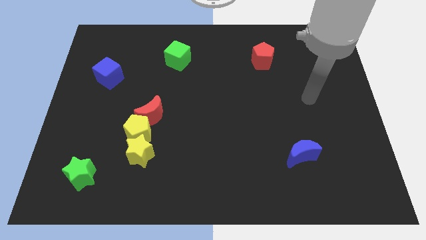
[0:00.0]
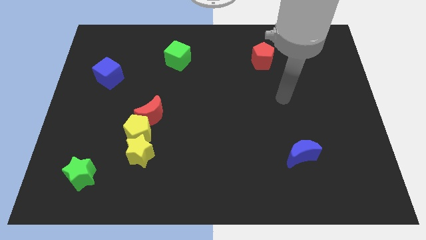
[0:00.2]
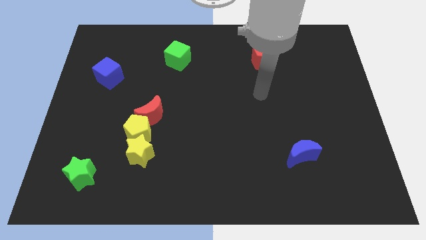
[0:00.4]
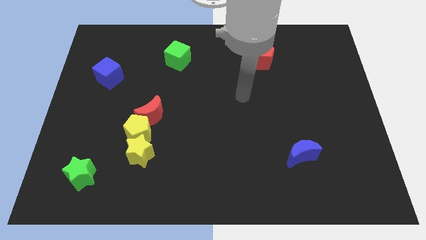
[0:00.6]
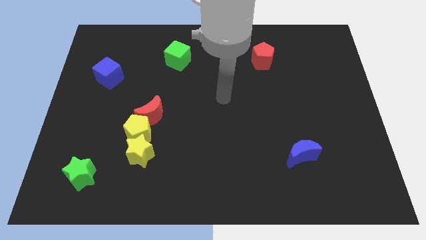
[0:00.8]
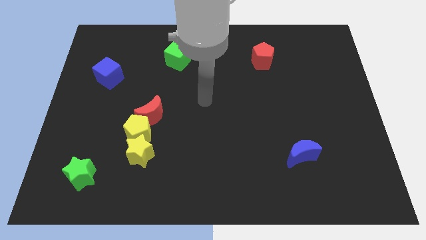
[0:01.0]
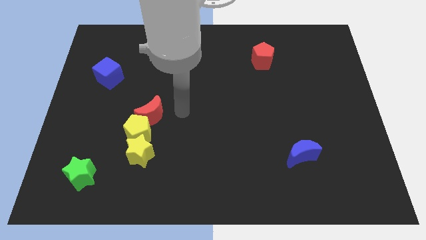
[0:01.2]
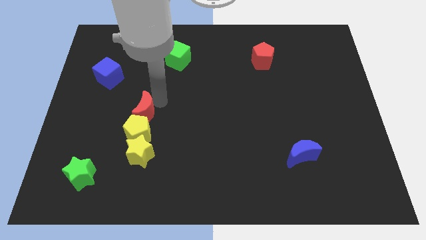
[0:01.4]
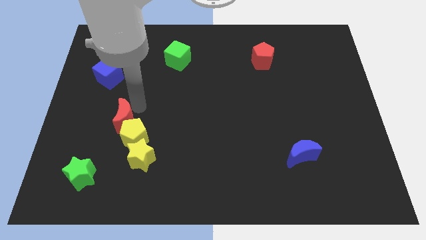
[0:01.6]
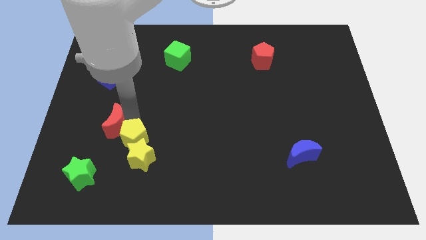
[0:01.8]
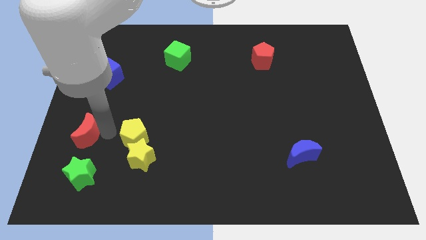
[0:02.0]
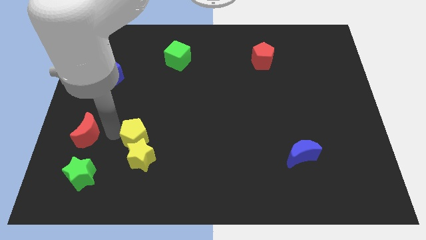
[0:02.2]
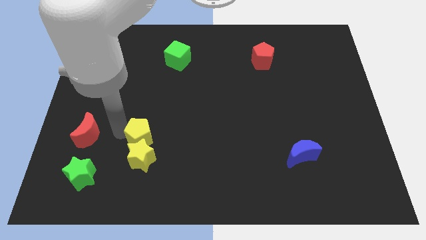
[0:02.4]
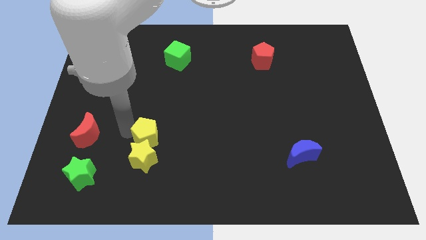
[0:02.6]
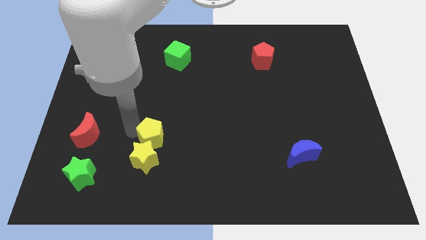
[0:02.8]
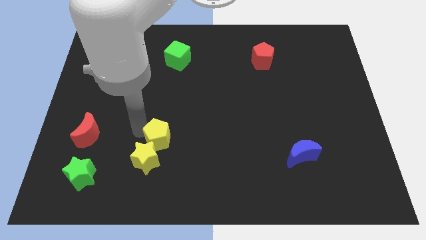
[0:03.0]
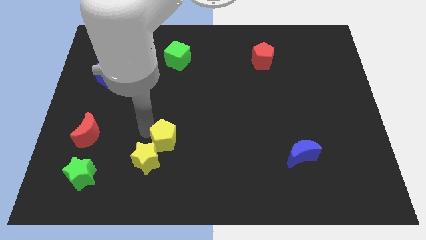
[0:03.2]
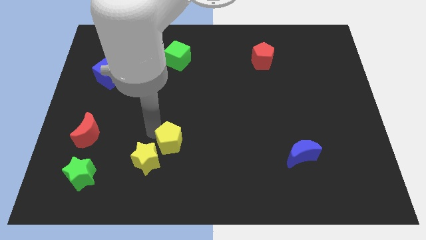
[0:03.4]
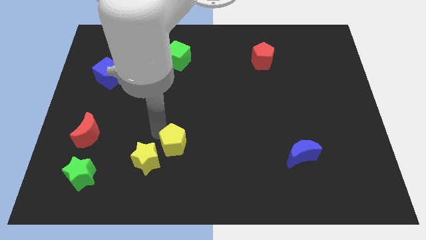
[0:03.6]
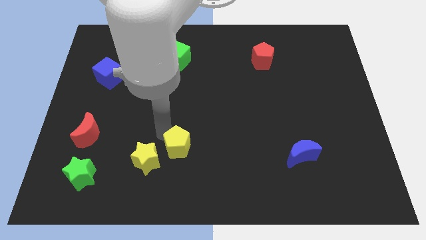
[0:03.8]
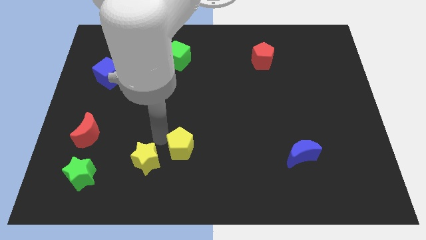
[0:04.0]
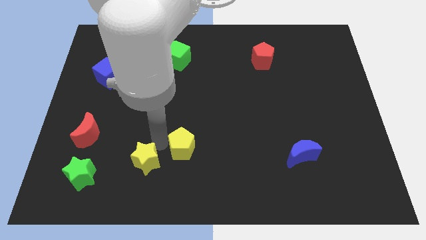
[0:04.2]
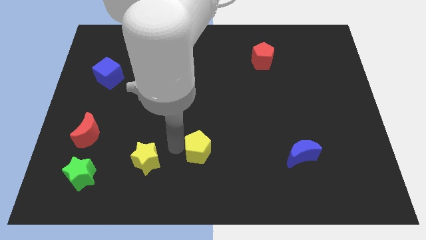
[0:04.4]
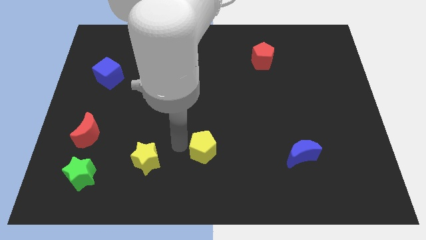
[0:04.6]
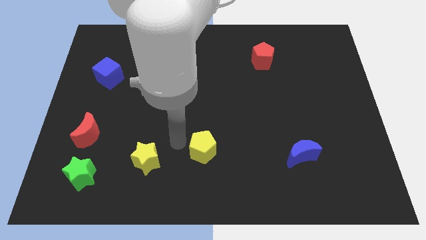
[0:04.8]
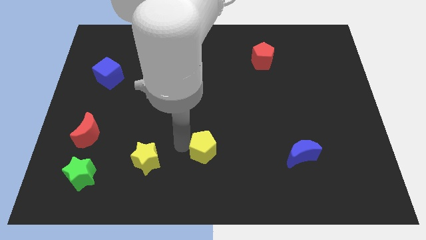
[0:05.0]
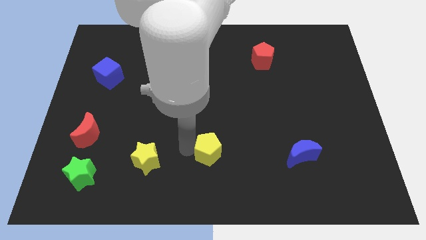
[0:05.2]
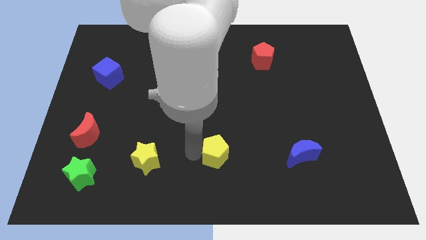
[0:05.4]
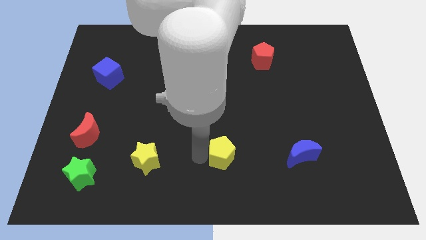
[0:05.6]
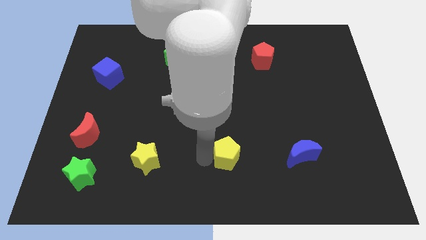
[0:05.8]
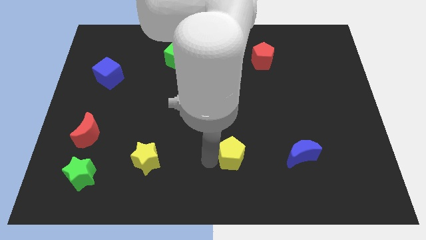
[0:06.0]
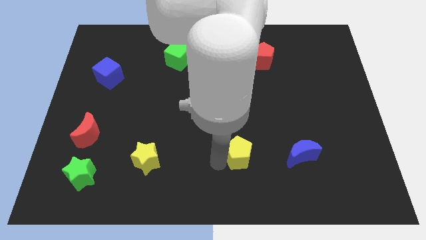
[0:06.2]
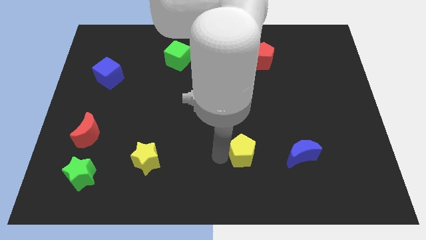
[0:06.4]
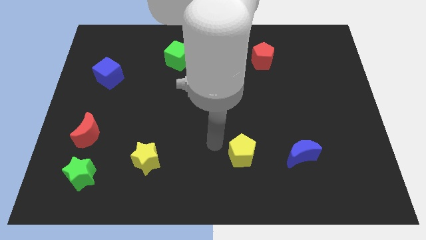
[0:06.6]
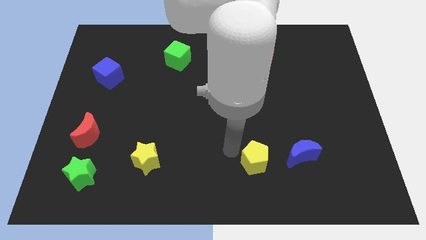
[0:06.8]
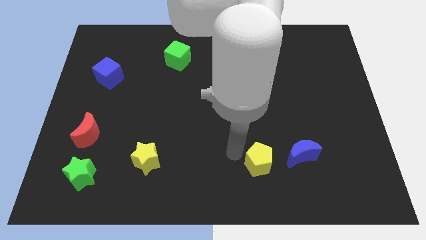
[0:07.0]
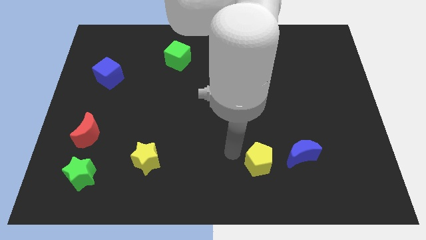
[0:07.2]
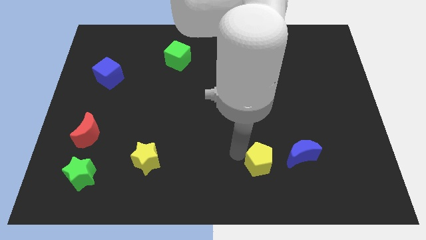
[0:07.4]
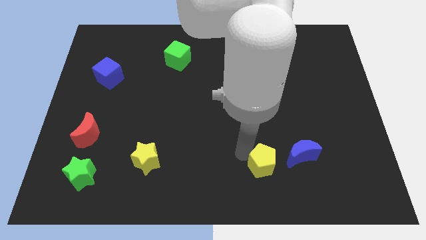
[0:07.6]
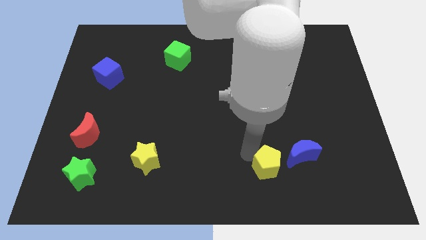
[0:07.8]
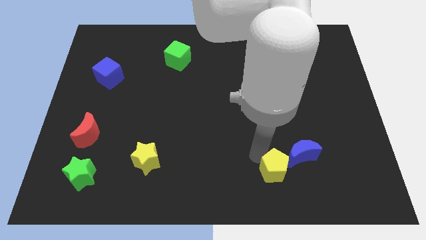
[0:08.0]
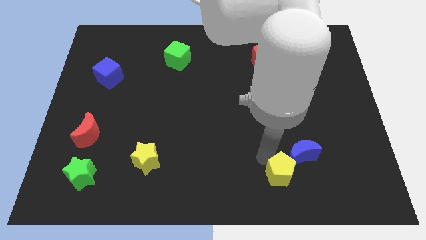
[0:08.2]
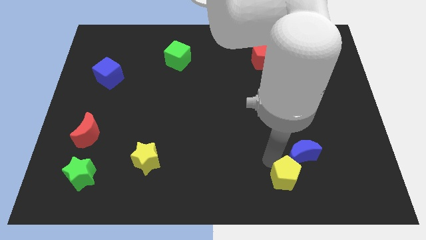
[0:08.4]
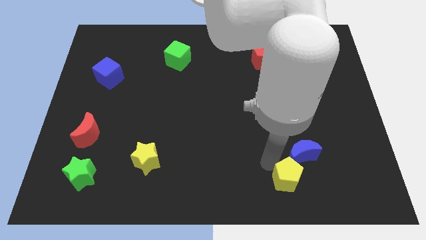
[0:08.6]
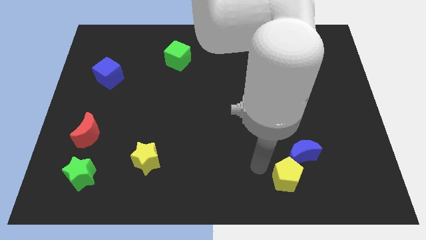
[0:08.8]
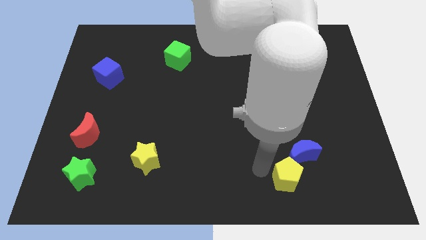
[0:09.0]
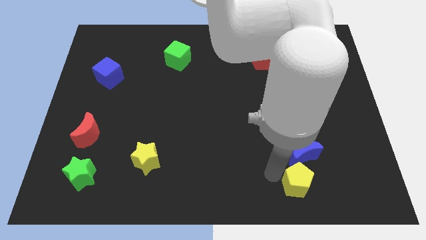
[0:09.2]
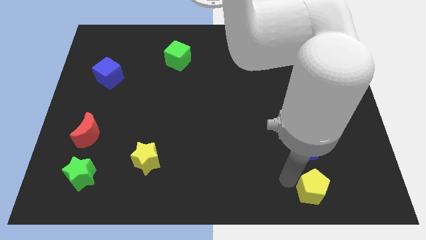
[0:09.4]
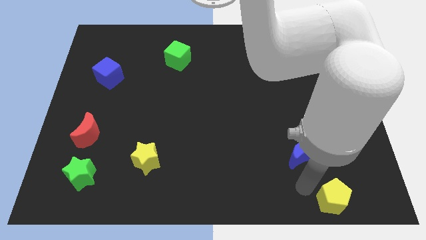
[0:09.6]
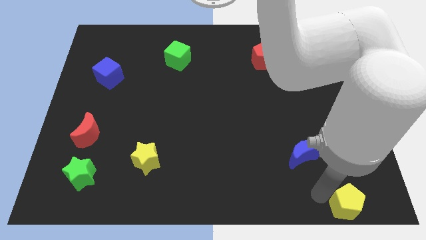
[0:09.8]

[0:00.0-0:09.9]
slide the yellow pentagon to the lower right corner

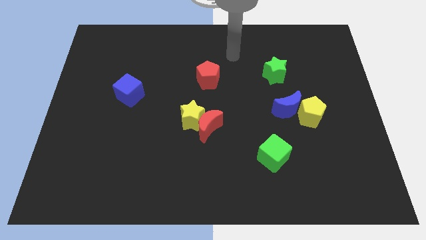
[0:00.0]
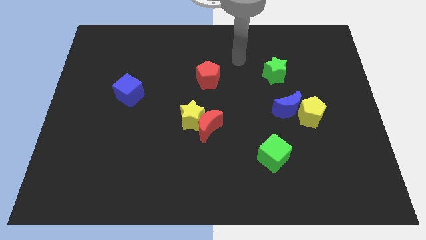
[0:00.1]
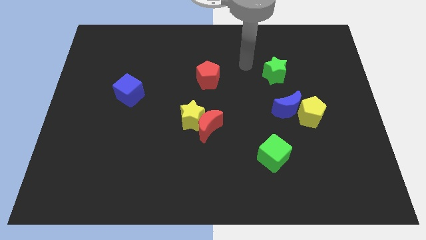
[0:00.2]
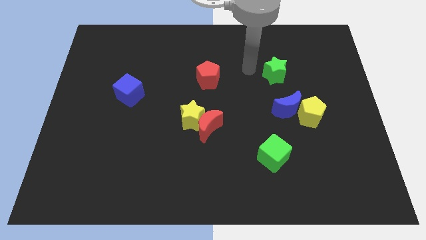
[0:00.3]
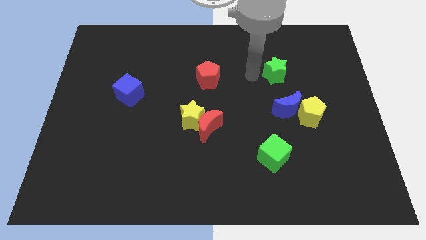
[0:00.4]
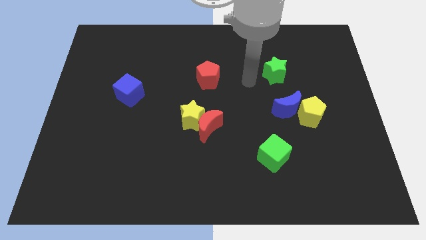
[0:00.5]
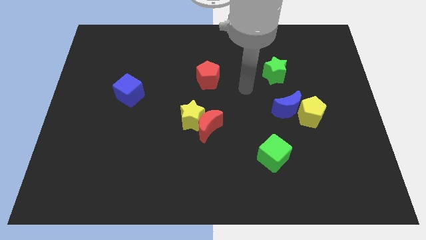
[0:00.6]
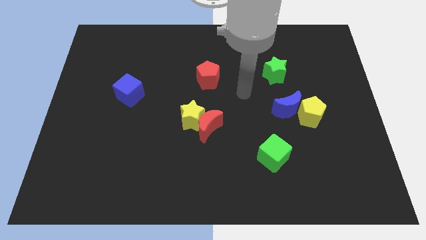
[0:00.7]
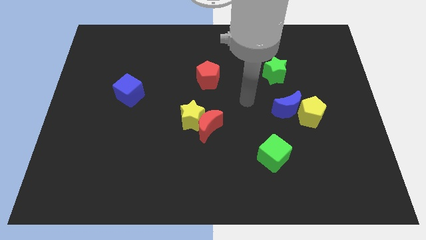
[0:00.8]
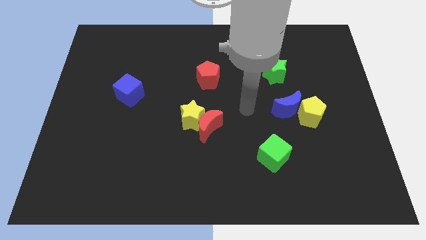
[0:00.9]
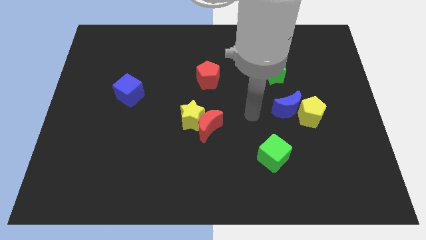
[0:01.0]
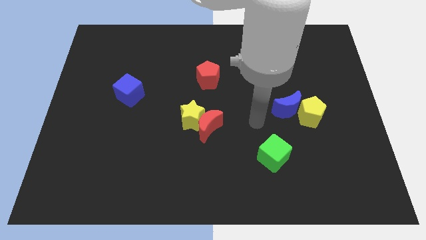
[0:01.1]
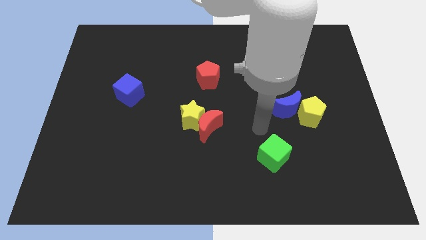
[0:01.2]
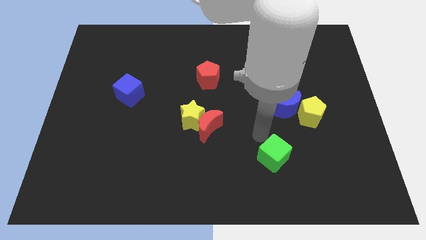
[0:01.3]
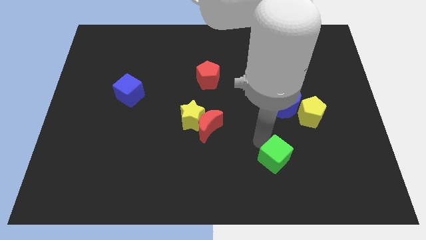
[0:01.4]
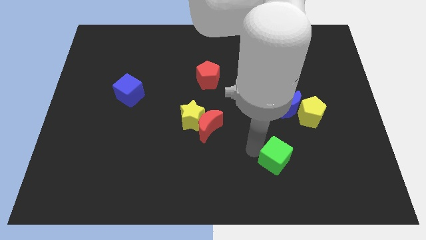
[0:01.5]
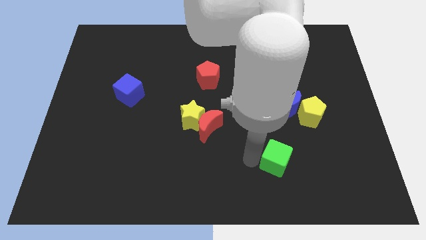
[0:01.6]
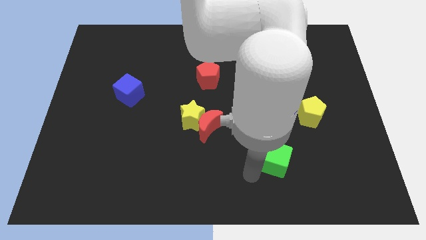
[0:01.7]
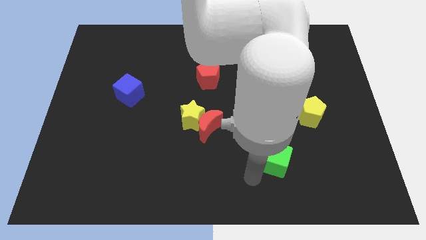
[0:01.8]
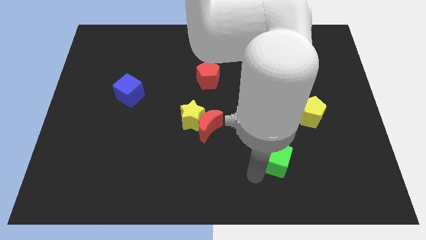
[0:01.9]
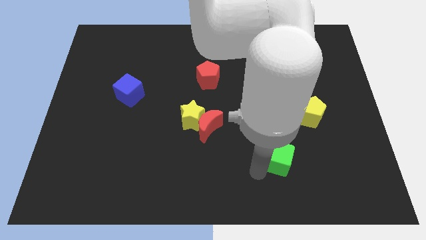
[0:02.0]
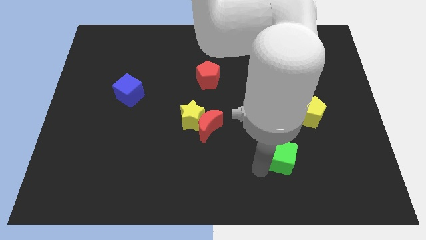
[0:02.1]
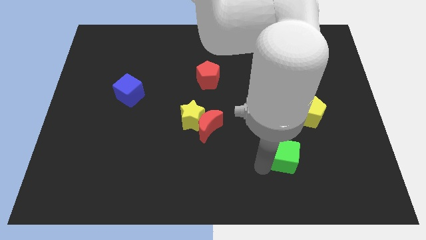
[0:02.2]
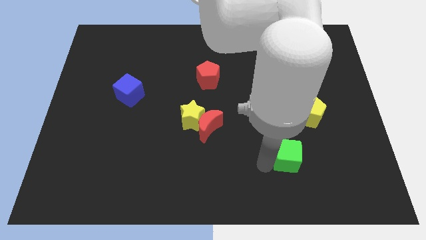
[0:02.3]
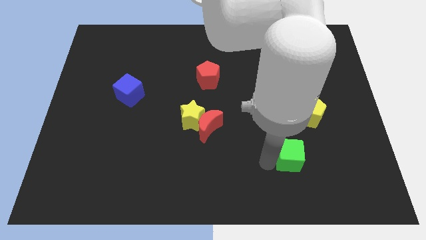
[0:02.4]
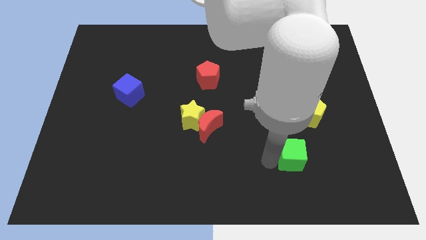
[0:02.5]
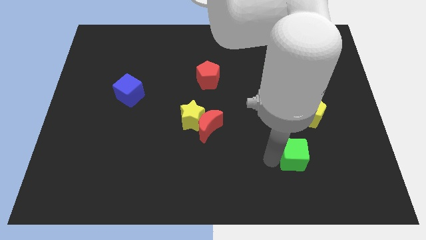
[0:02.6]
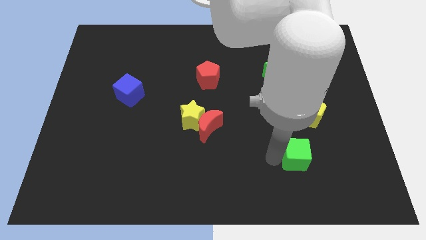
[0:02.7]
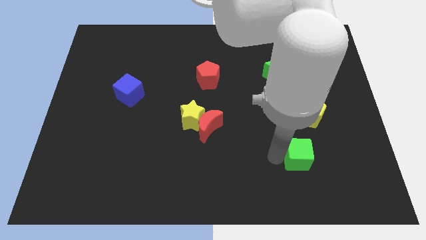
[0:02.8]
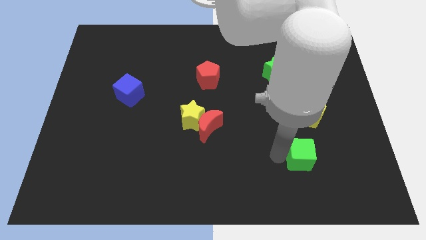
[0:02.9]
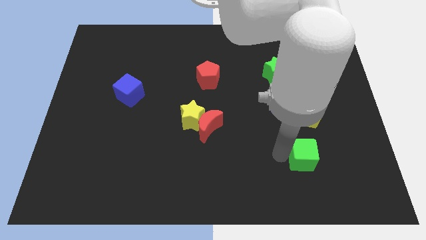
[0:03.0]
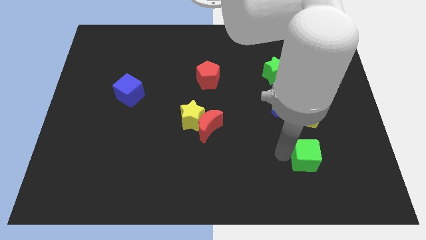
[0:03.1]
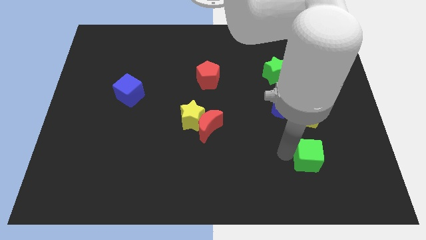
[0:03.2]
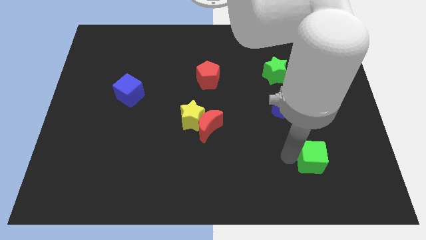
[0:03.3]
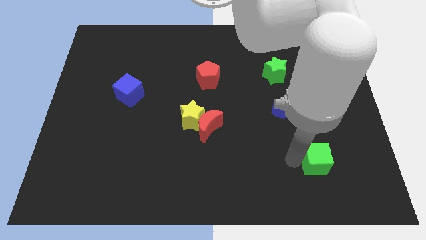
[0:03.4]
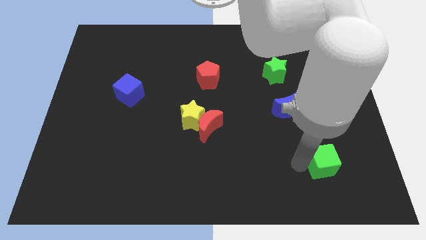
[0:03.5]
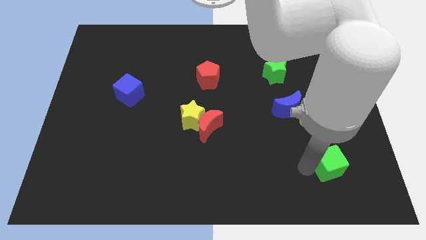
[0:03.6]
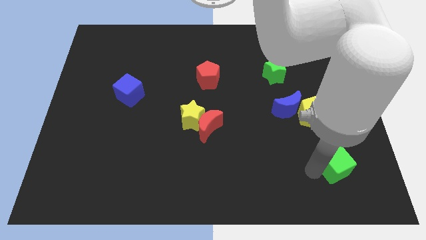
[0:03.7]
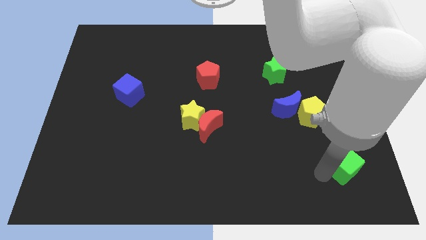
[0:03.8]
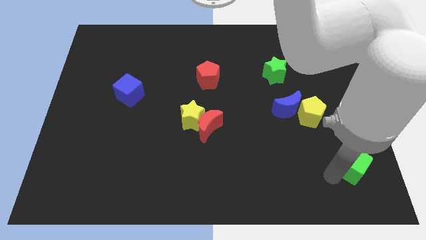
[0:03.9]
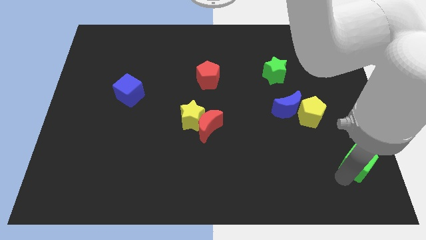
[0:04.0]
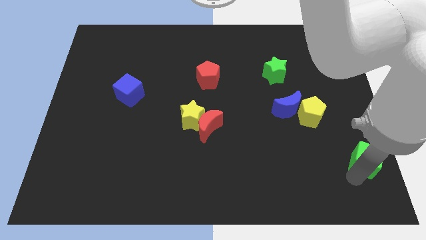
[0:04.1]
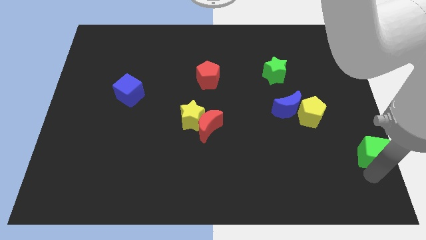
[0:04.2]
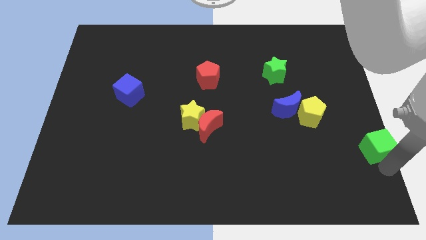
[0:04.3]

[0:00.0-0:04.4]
push the green cube to the right side of the board
